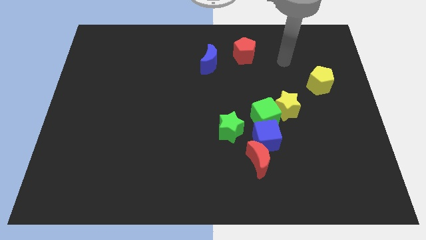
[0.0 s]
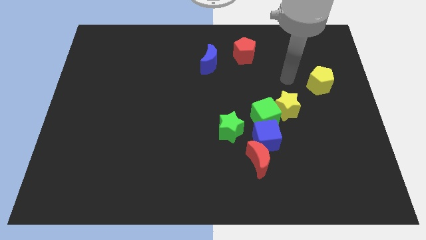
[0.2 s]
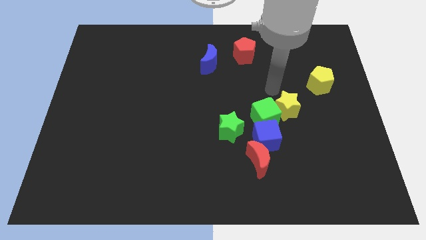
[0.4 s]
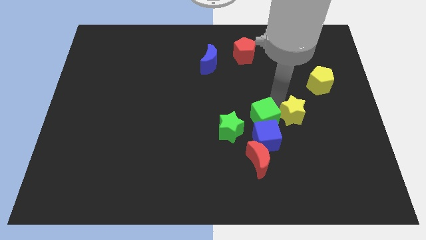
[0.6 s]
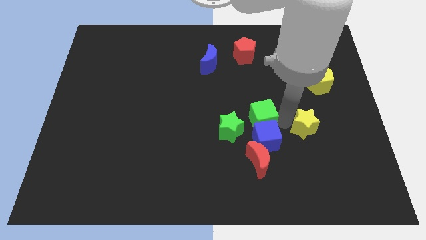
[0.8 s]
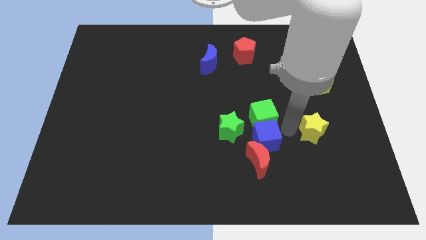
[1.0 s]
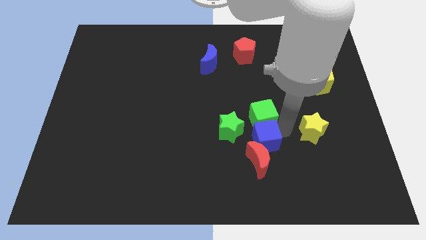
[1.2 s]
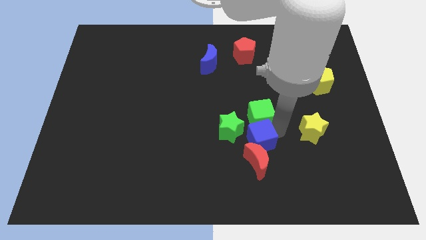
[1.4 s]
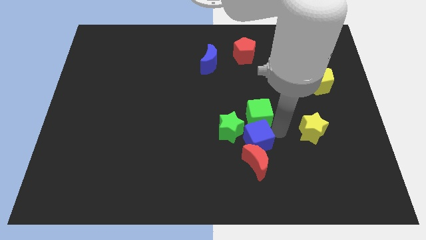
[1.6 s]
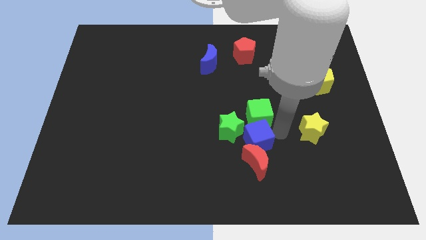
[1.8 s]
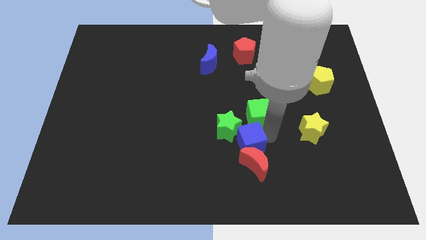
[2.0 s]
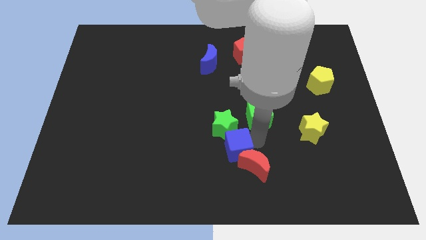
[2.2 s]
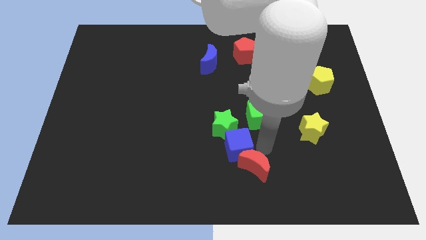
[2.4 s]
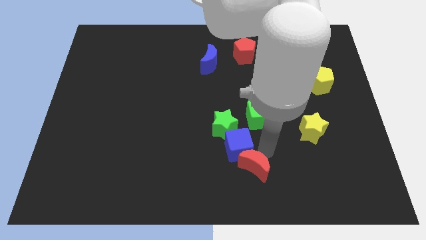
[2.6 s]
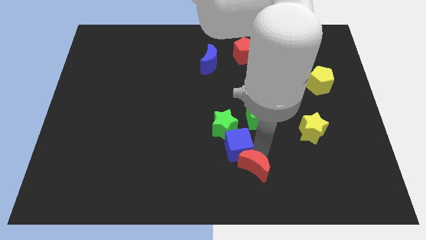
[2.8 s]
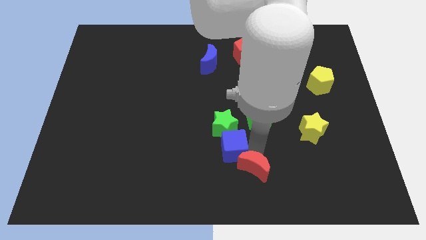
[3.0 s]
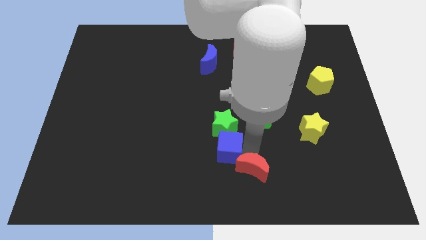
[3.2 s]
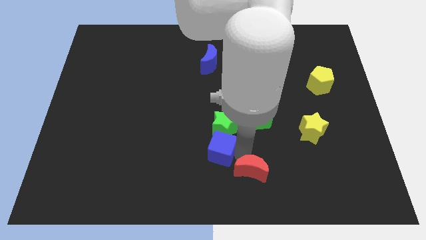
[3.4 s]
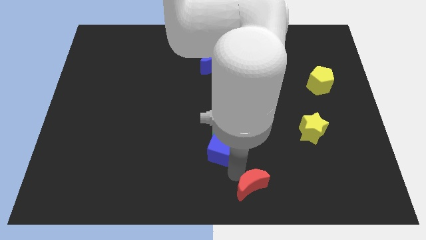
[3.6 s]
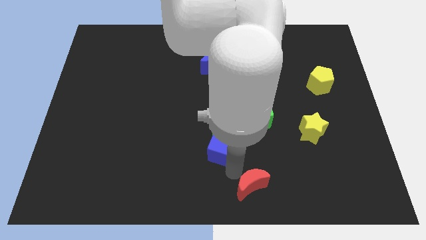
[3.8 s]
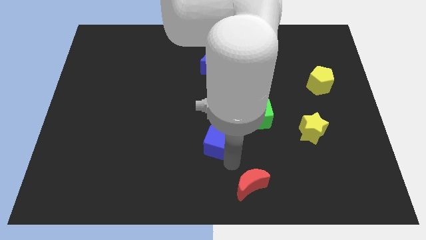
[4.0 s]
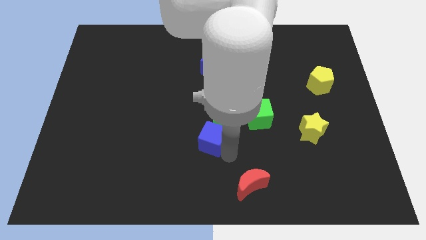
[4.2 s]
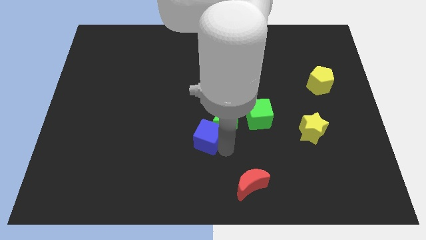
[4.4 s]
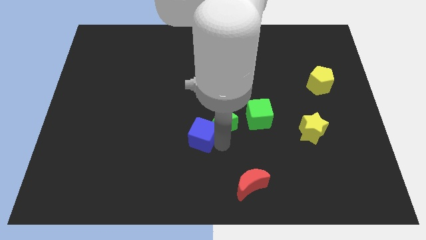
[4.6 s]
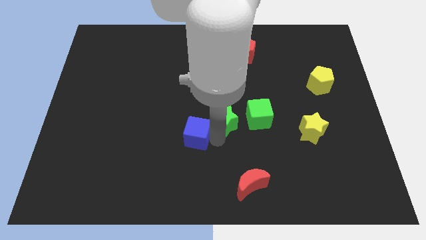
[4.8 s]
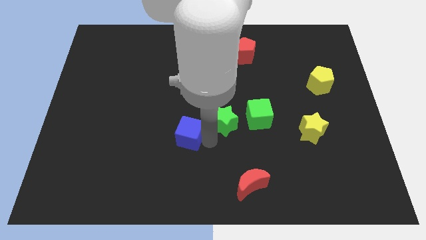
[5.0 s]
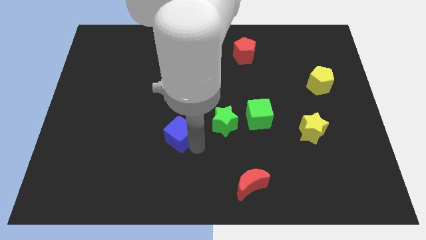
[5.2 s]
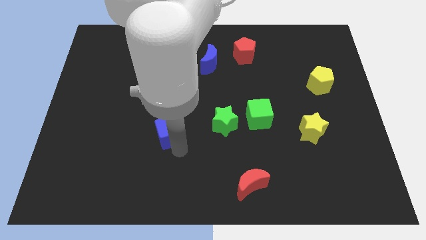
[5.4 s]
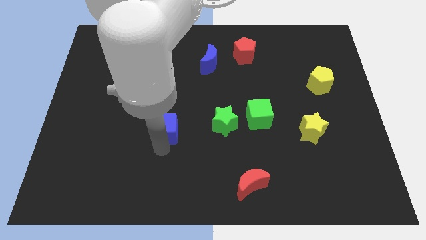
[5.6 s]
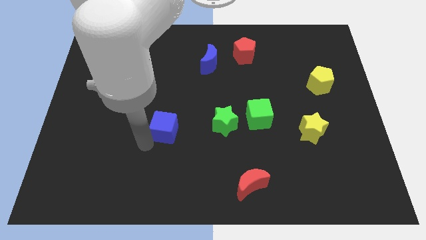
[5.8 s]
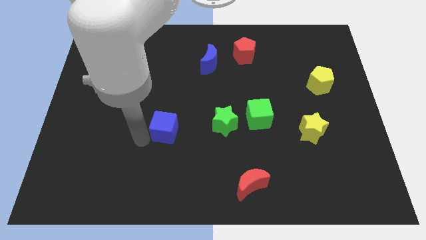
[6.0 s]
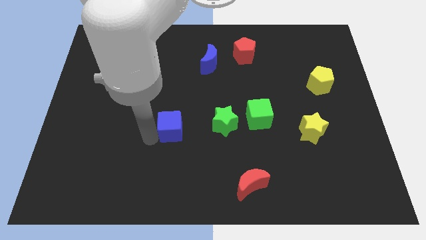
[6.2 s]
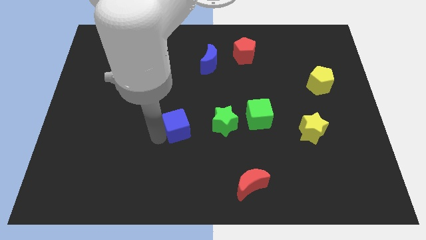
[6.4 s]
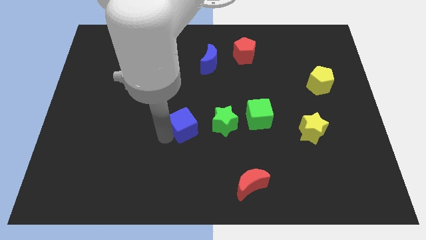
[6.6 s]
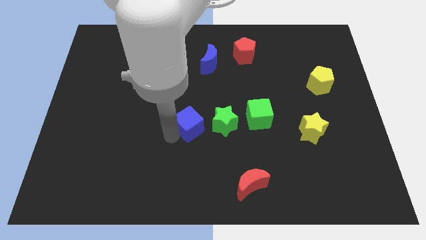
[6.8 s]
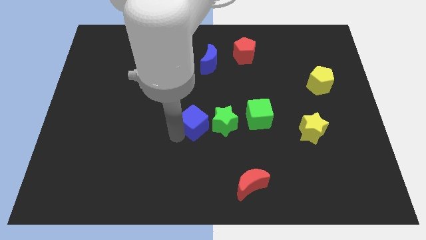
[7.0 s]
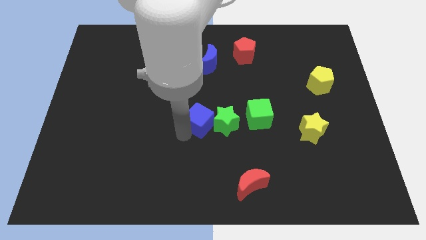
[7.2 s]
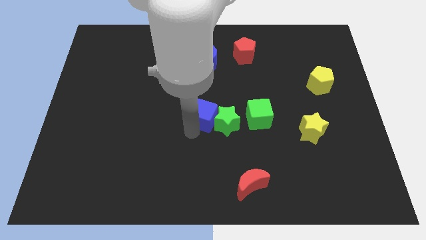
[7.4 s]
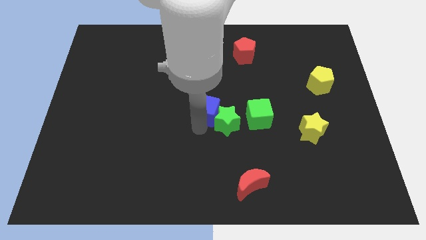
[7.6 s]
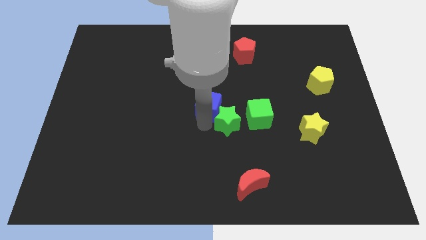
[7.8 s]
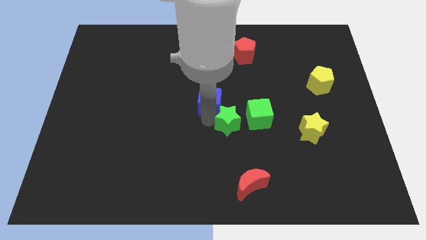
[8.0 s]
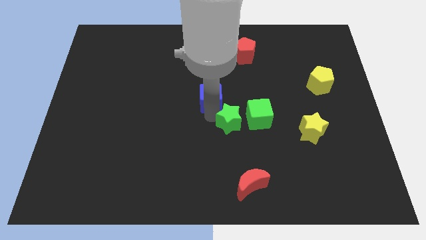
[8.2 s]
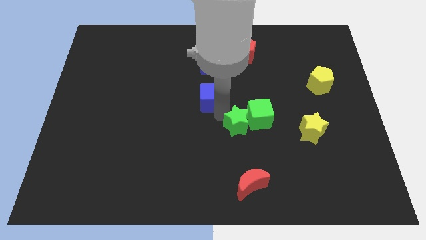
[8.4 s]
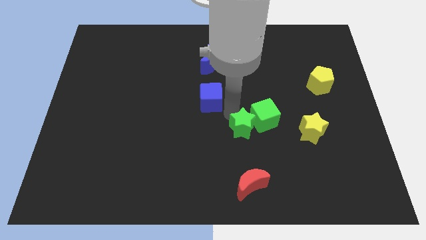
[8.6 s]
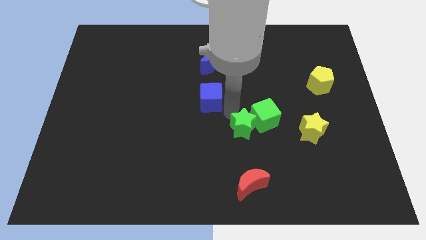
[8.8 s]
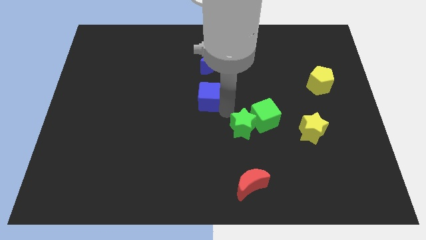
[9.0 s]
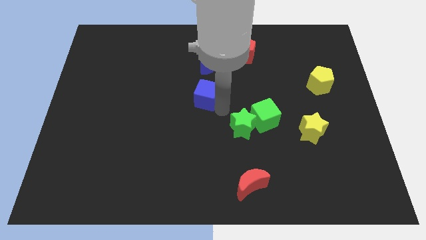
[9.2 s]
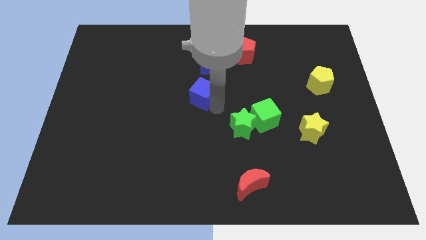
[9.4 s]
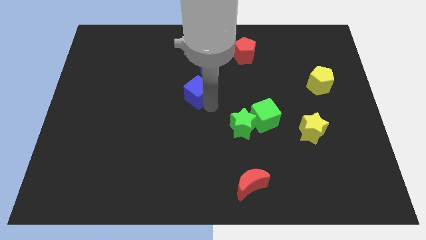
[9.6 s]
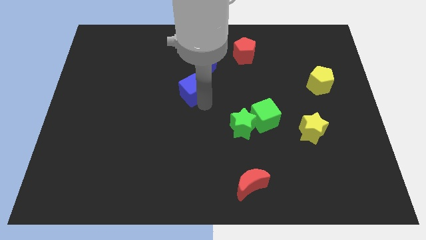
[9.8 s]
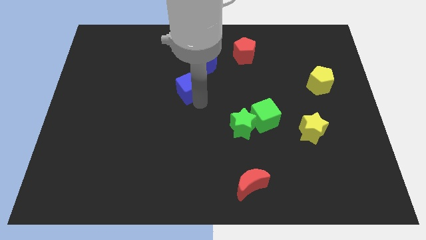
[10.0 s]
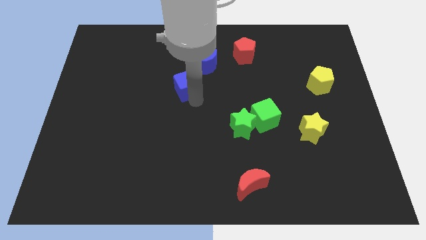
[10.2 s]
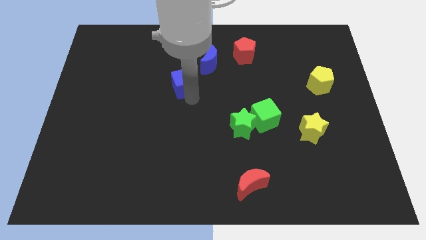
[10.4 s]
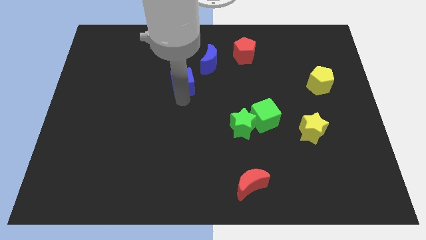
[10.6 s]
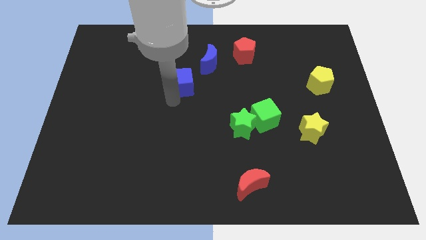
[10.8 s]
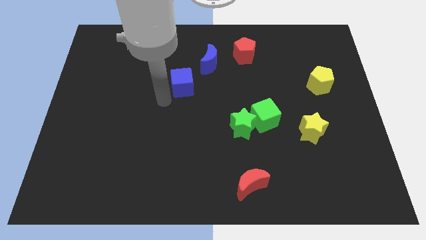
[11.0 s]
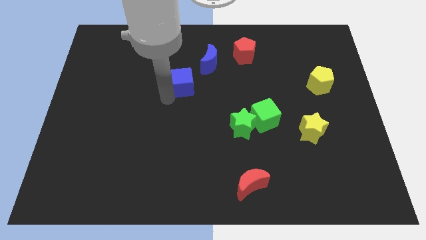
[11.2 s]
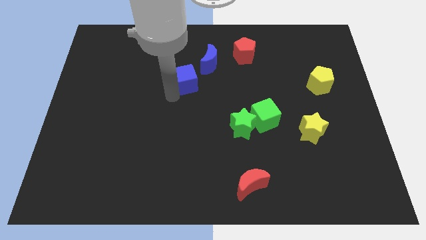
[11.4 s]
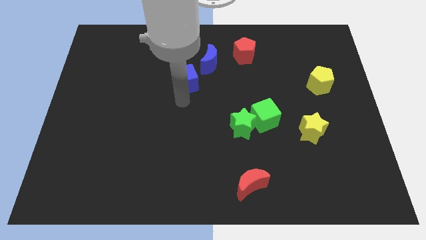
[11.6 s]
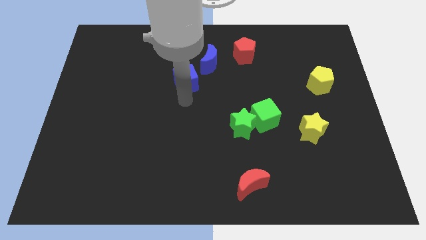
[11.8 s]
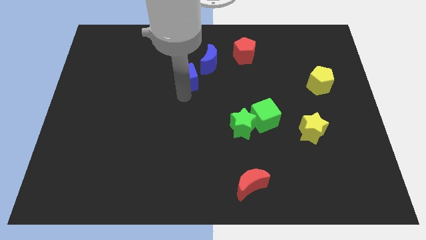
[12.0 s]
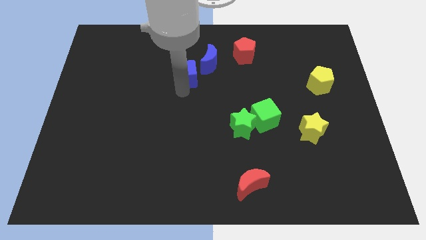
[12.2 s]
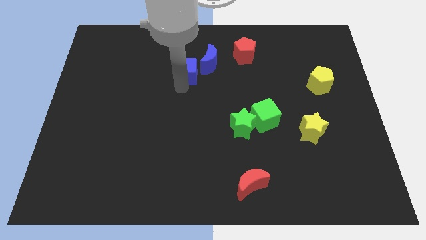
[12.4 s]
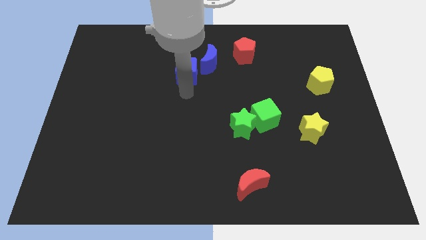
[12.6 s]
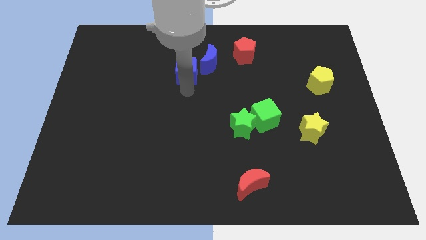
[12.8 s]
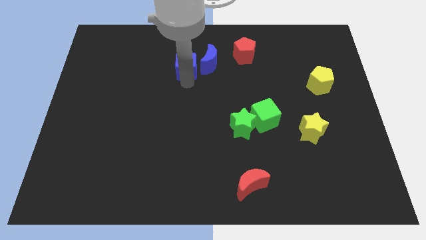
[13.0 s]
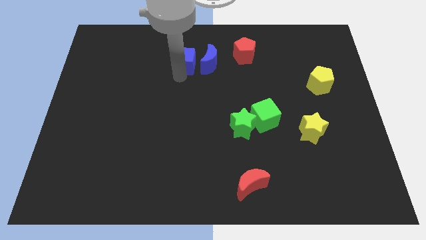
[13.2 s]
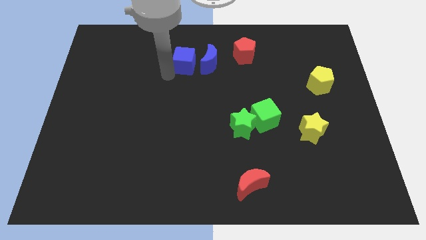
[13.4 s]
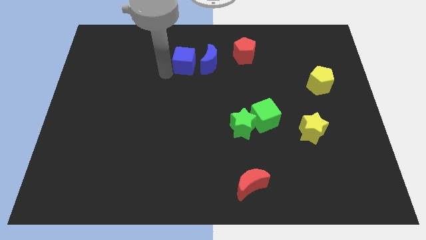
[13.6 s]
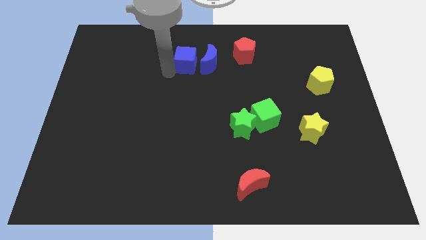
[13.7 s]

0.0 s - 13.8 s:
put the blue cube left of the red pentagon

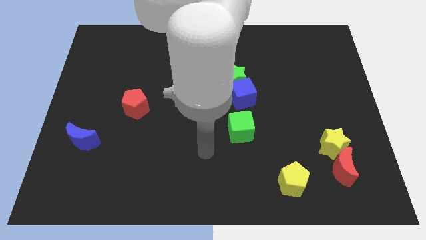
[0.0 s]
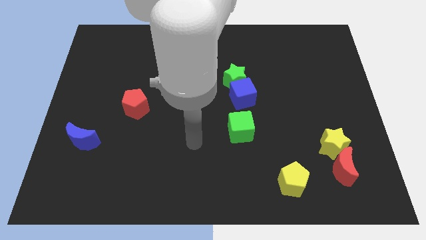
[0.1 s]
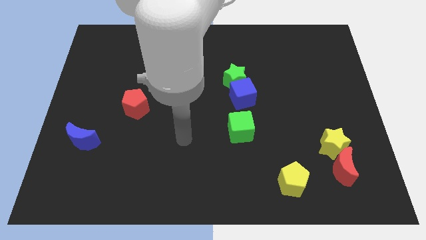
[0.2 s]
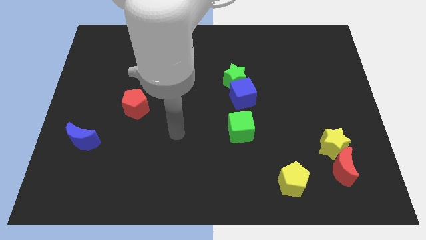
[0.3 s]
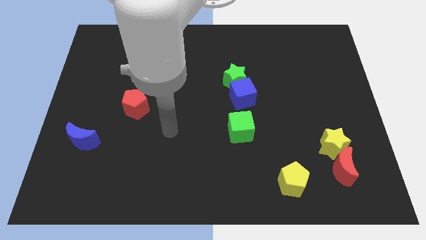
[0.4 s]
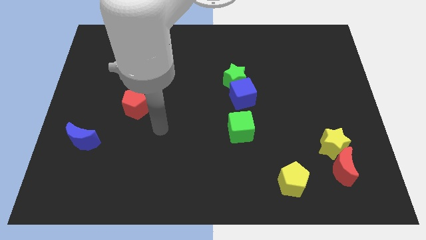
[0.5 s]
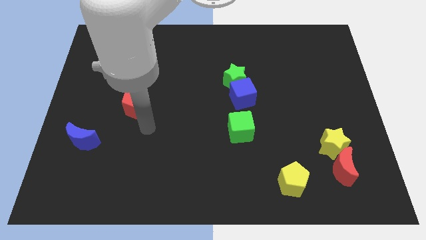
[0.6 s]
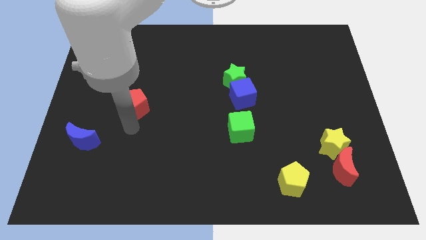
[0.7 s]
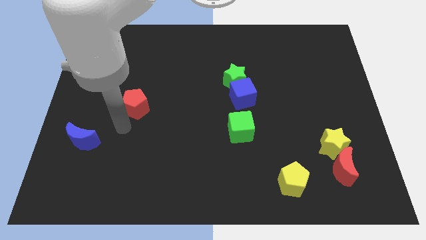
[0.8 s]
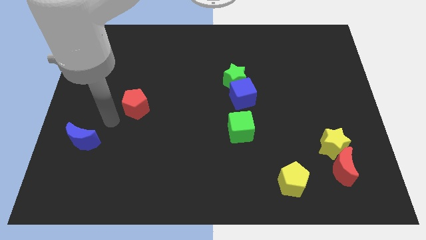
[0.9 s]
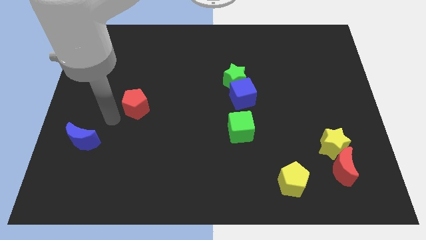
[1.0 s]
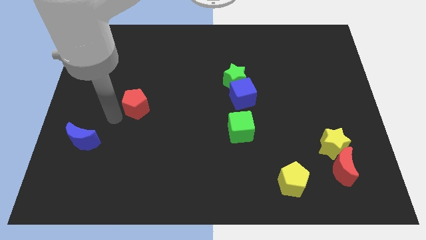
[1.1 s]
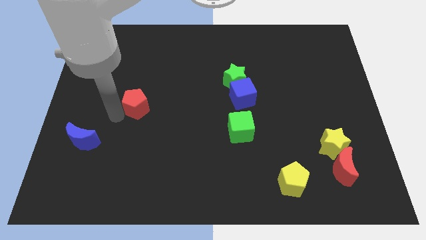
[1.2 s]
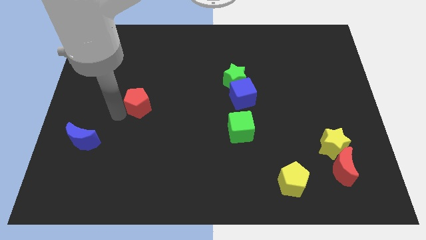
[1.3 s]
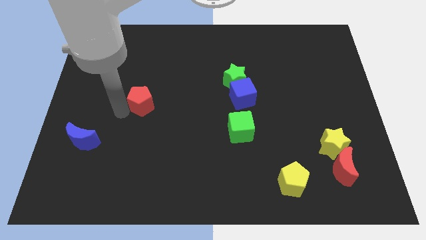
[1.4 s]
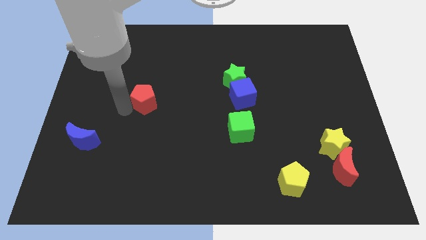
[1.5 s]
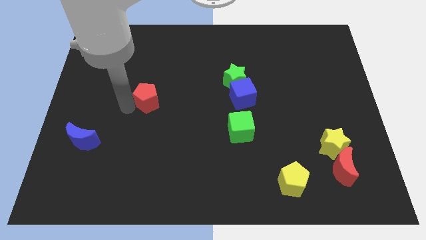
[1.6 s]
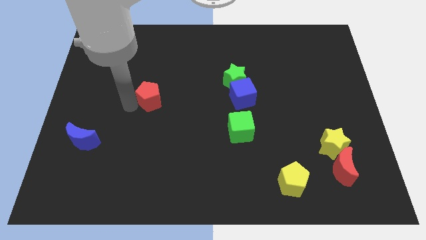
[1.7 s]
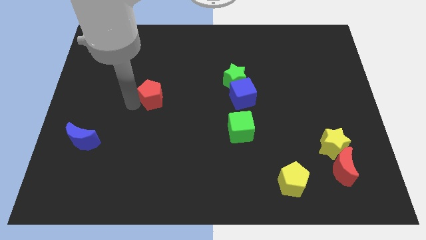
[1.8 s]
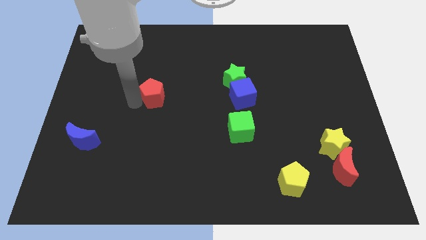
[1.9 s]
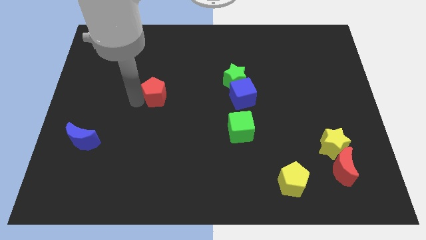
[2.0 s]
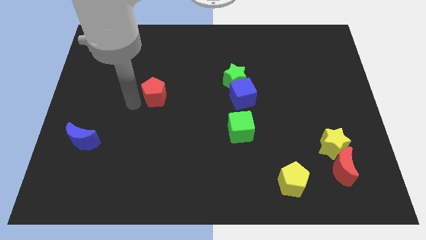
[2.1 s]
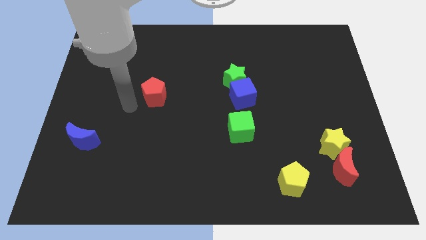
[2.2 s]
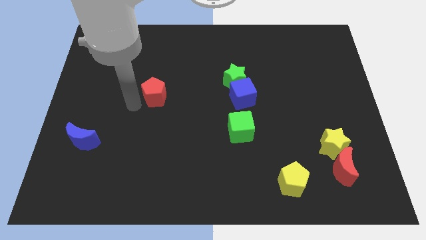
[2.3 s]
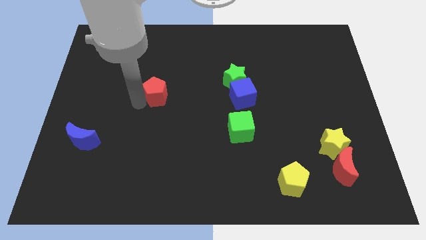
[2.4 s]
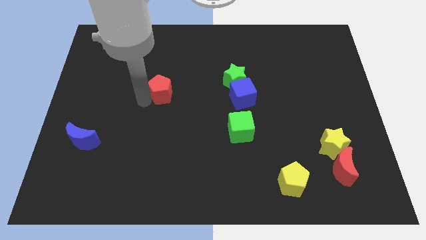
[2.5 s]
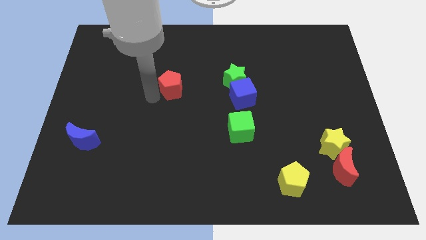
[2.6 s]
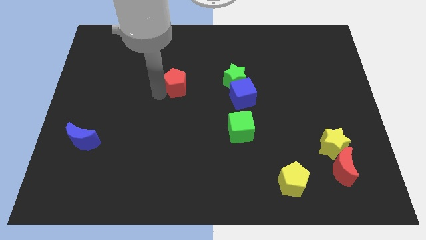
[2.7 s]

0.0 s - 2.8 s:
slide the red pentagon just left of the green star
